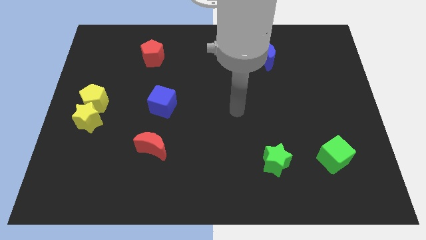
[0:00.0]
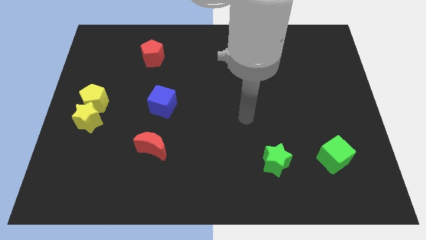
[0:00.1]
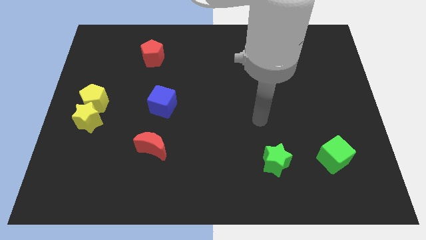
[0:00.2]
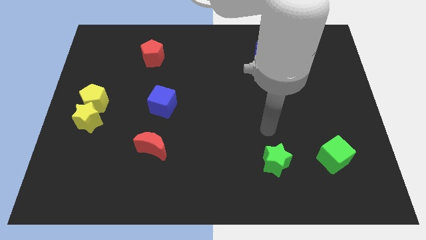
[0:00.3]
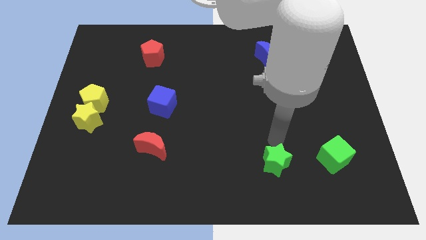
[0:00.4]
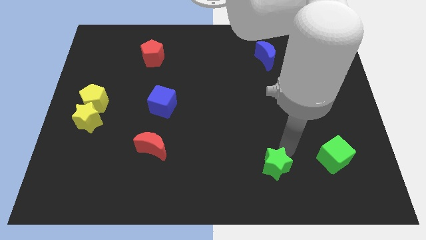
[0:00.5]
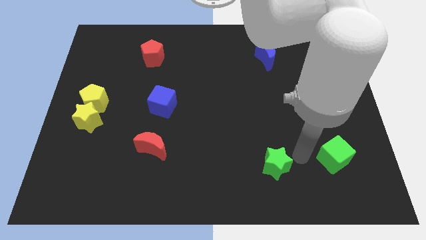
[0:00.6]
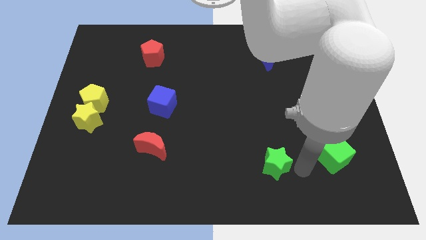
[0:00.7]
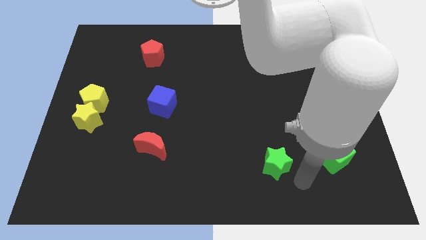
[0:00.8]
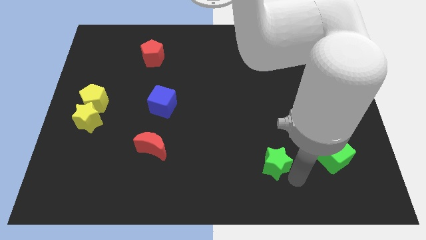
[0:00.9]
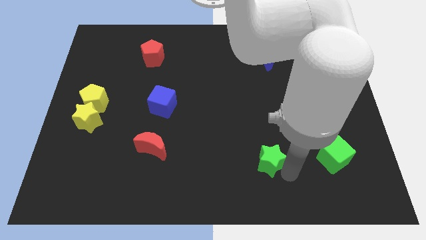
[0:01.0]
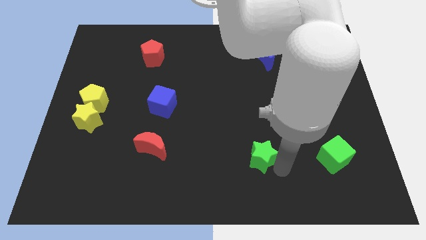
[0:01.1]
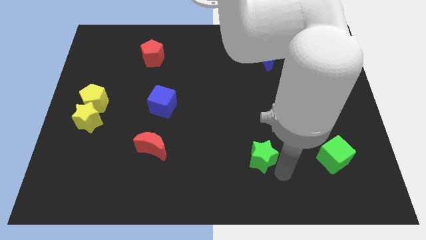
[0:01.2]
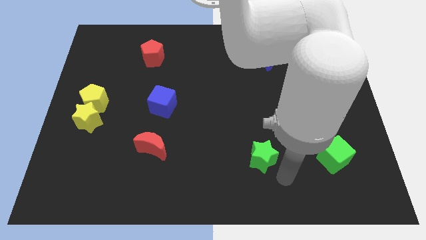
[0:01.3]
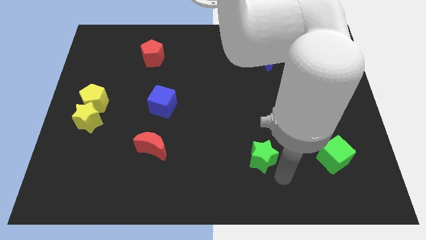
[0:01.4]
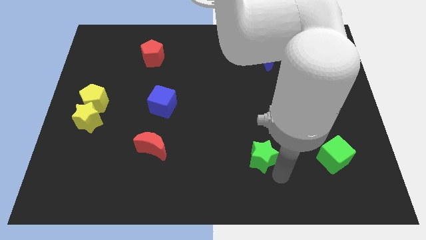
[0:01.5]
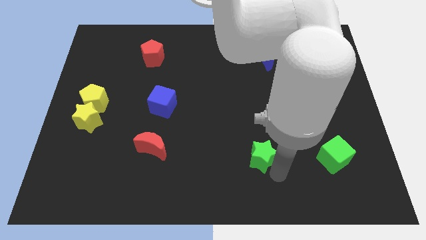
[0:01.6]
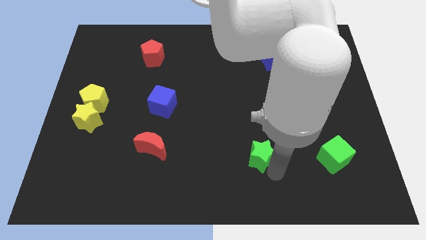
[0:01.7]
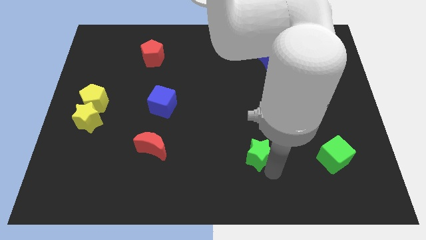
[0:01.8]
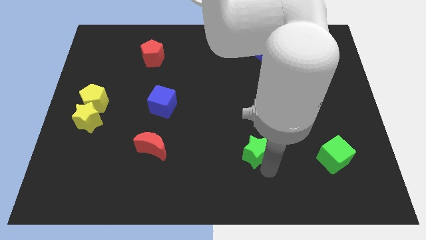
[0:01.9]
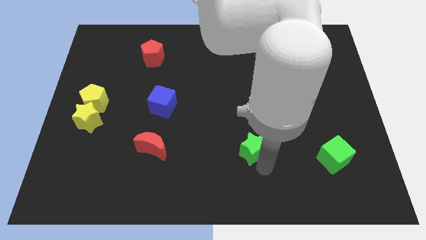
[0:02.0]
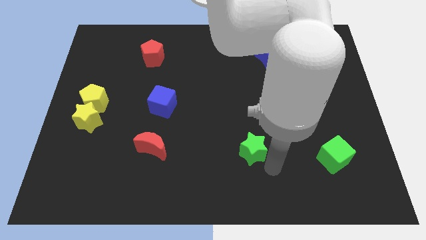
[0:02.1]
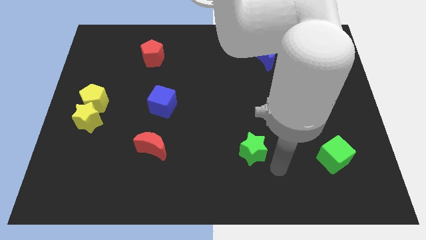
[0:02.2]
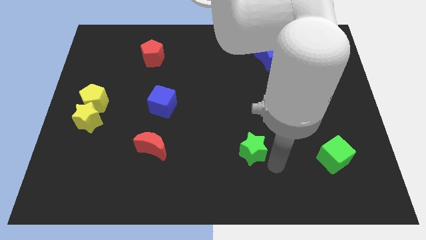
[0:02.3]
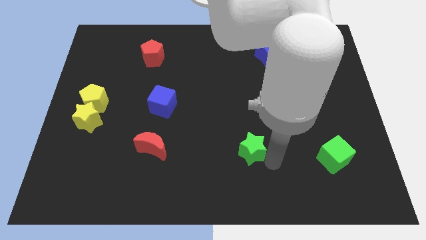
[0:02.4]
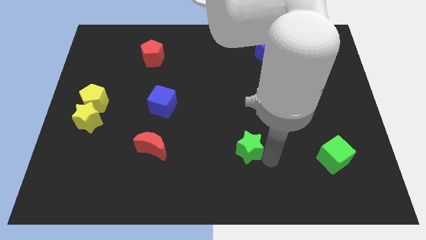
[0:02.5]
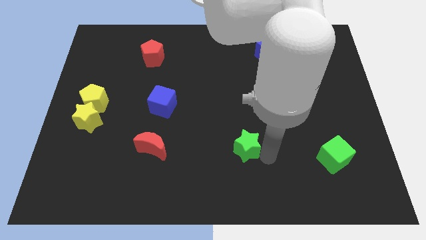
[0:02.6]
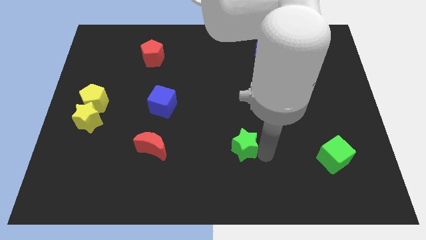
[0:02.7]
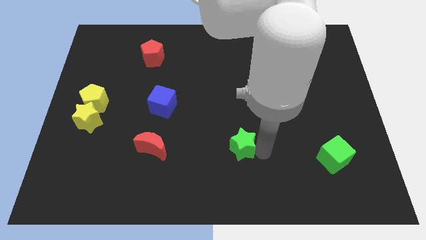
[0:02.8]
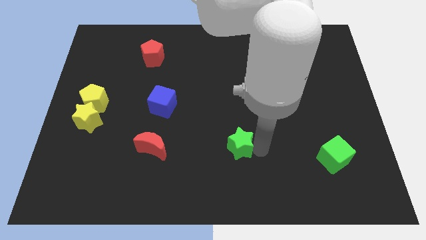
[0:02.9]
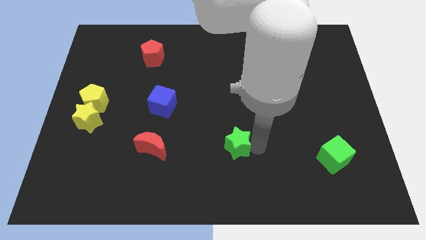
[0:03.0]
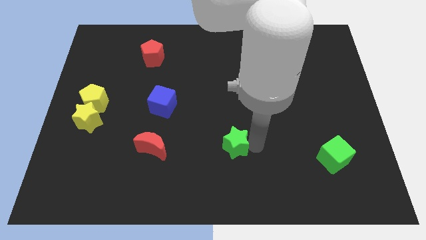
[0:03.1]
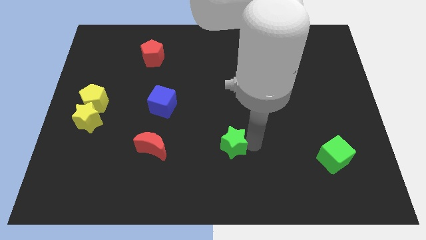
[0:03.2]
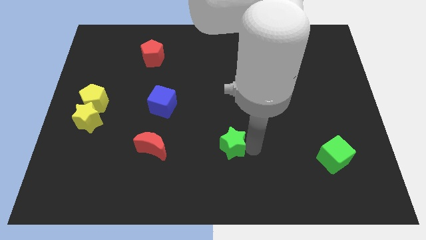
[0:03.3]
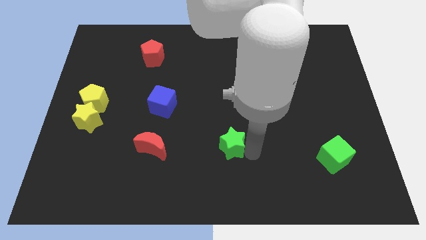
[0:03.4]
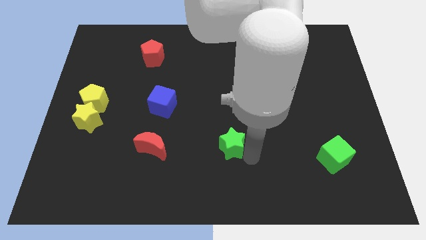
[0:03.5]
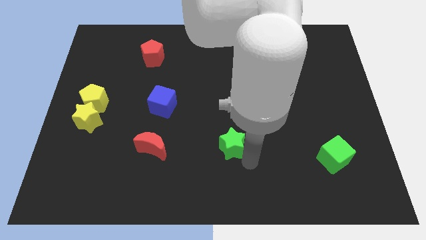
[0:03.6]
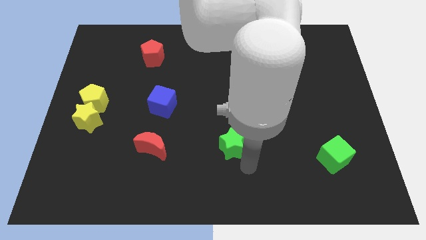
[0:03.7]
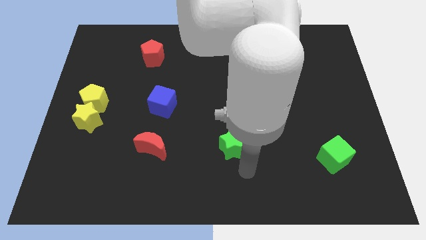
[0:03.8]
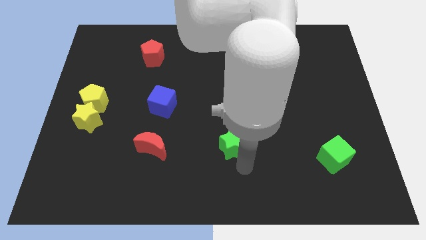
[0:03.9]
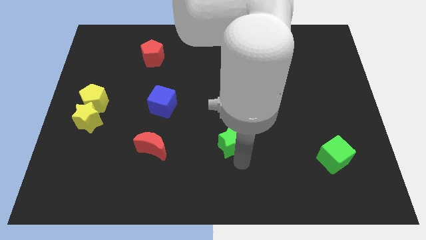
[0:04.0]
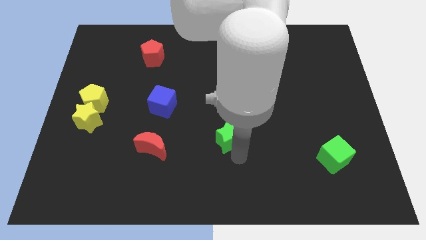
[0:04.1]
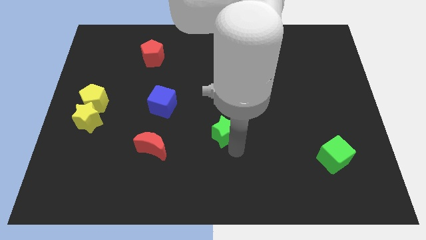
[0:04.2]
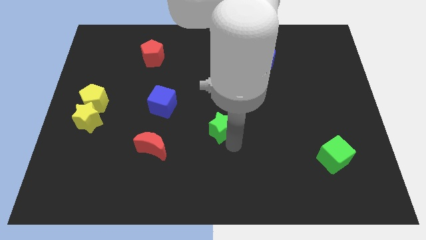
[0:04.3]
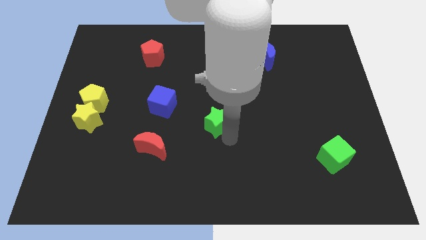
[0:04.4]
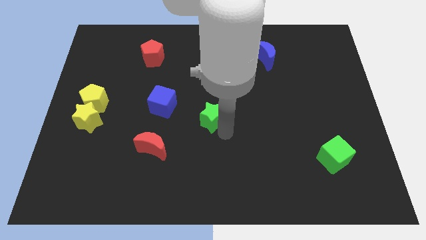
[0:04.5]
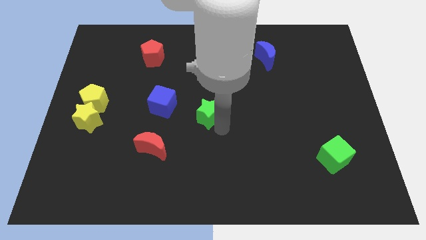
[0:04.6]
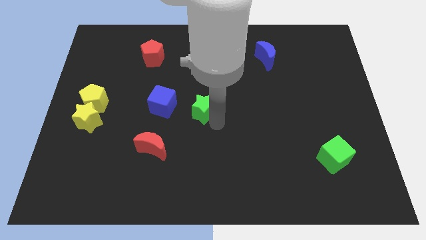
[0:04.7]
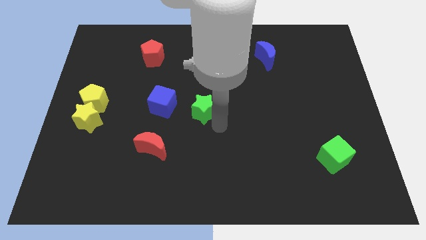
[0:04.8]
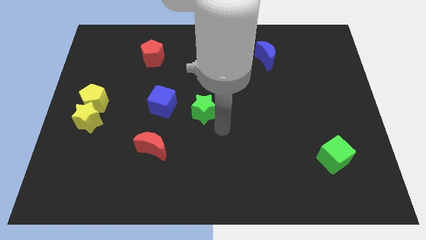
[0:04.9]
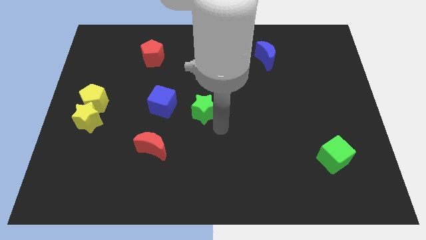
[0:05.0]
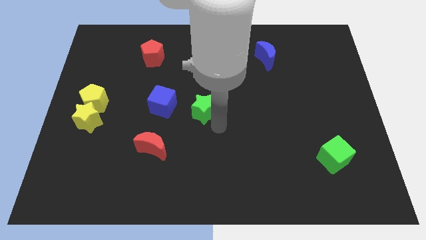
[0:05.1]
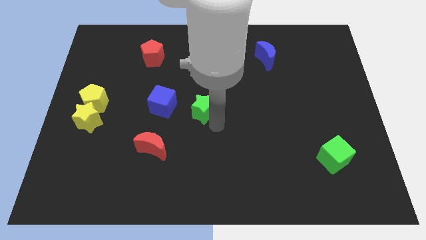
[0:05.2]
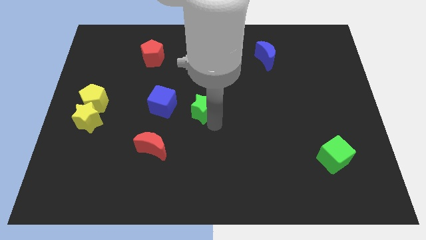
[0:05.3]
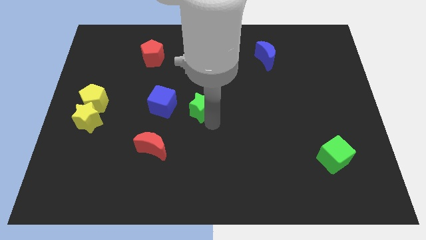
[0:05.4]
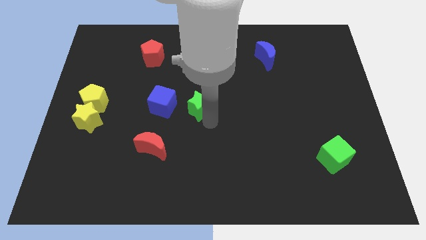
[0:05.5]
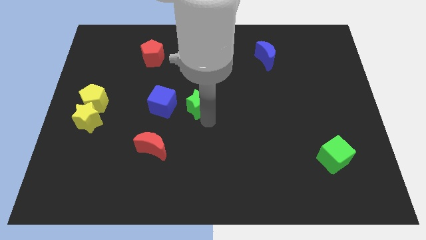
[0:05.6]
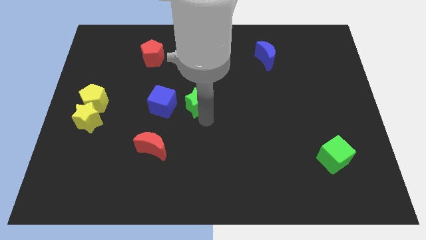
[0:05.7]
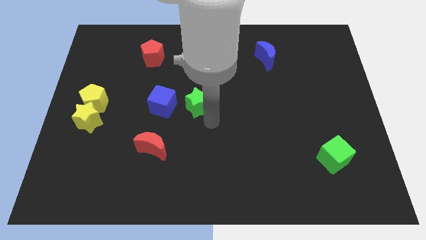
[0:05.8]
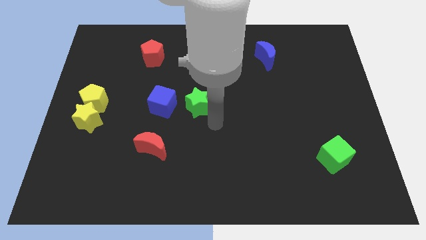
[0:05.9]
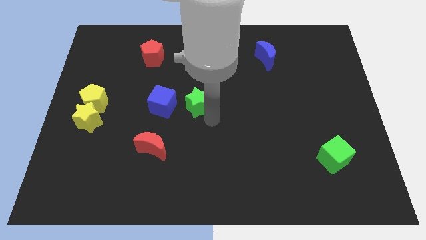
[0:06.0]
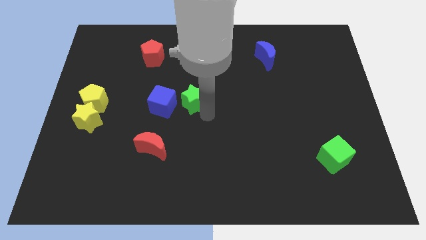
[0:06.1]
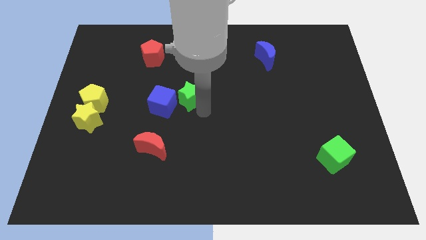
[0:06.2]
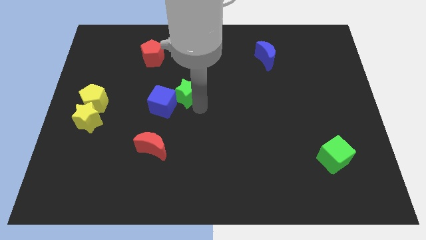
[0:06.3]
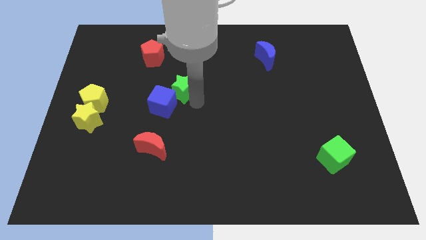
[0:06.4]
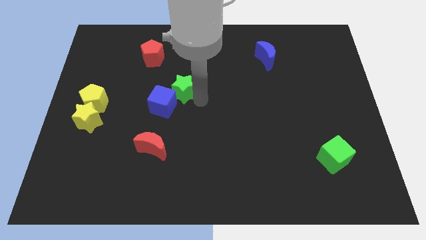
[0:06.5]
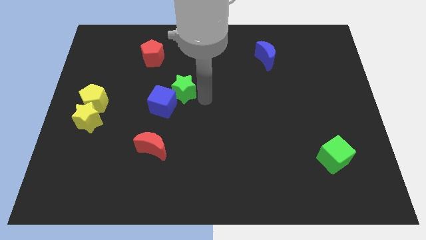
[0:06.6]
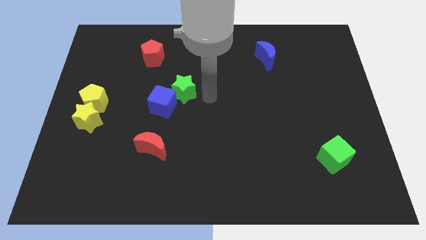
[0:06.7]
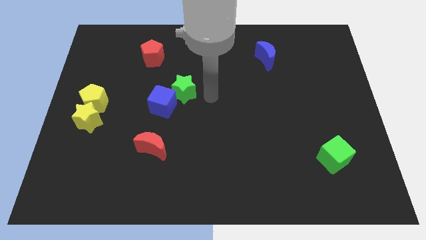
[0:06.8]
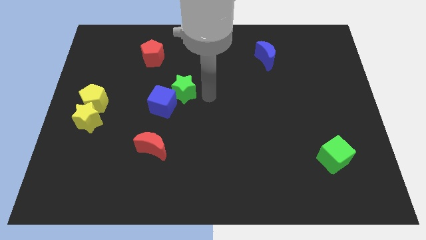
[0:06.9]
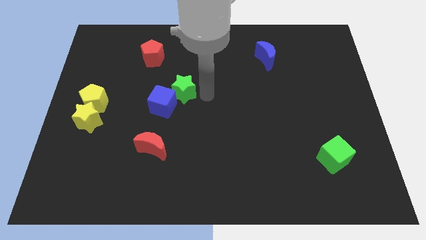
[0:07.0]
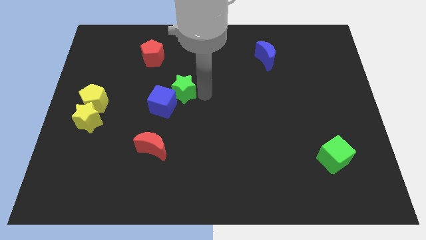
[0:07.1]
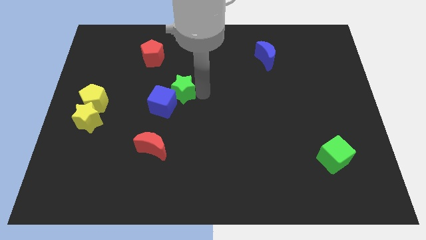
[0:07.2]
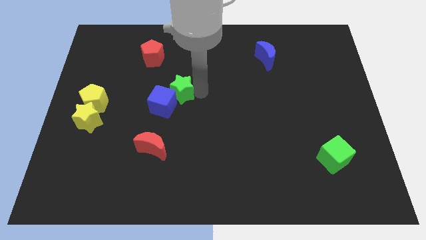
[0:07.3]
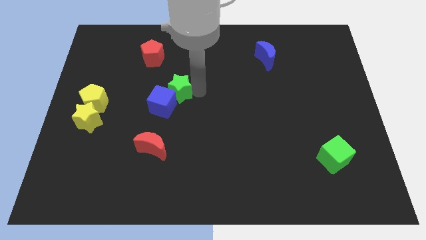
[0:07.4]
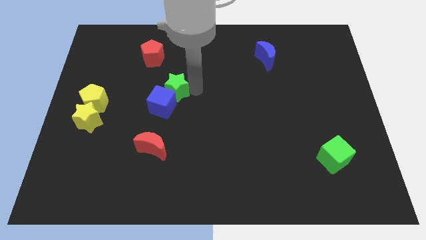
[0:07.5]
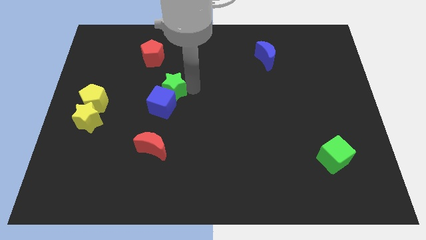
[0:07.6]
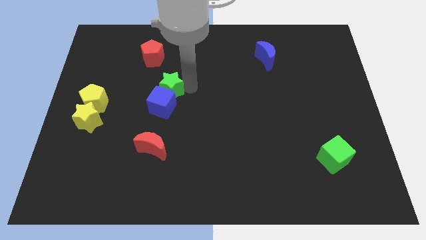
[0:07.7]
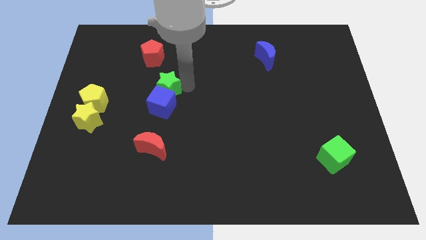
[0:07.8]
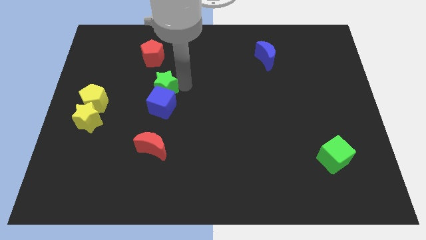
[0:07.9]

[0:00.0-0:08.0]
push the green star to the bottom of the red pentagon
